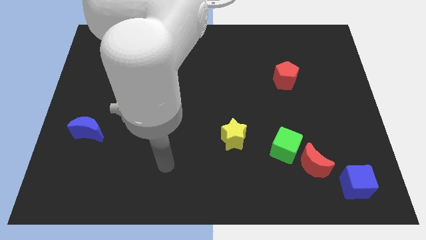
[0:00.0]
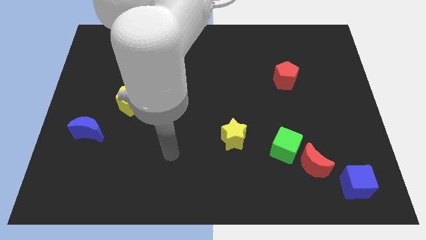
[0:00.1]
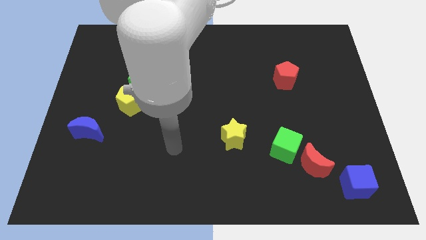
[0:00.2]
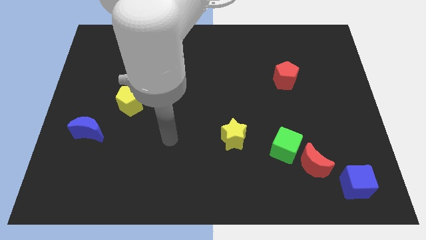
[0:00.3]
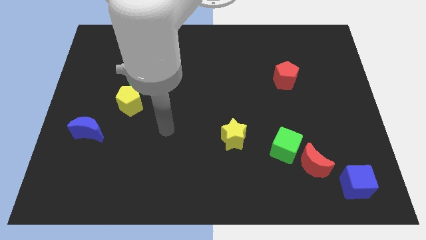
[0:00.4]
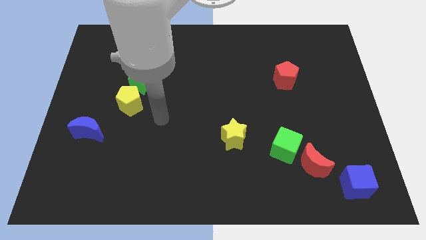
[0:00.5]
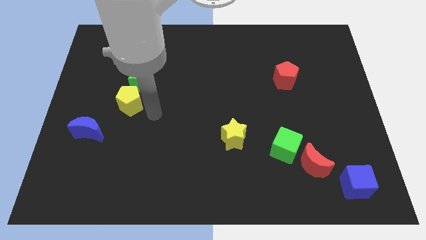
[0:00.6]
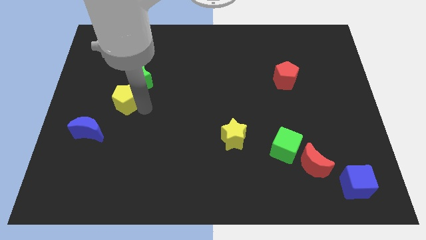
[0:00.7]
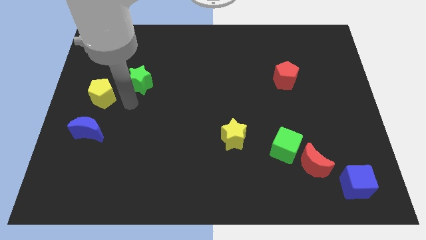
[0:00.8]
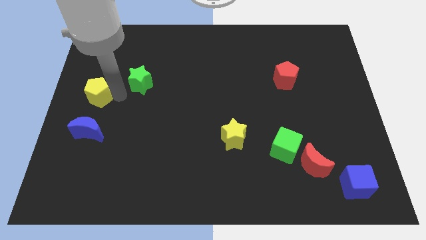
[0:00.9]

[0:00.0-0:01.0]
move the green star away from the yellow pentagon

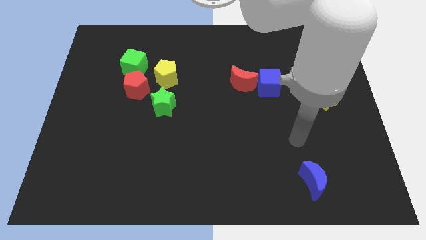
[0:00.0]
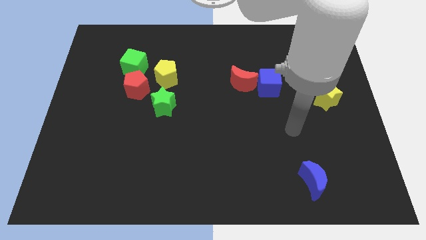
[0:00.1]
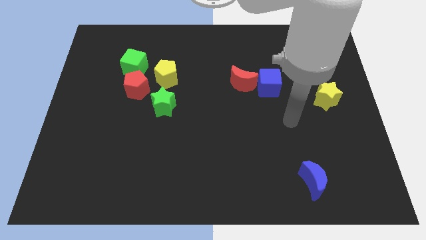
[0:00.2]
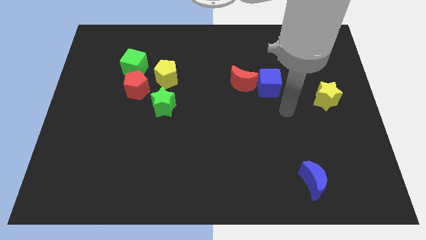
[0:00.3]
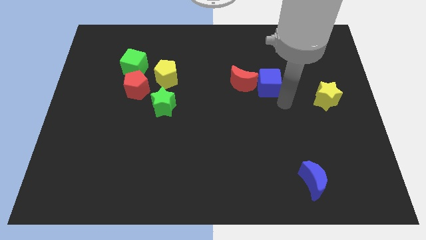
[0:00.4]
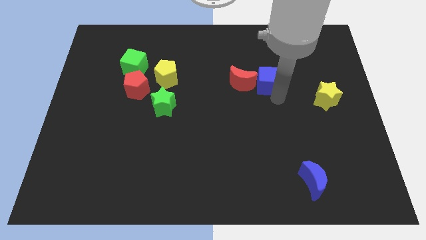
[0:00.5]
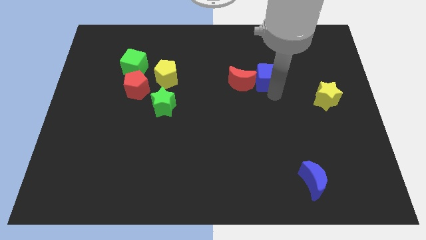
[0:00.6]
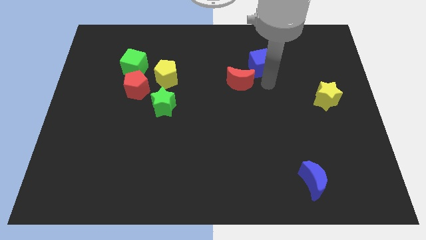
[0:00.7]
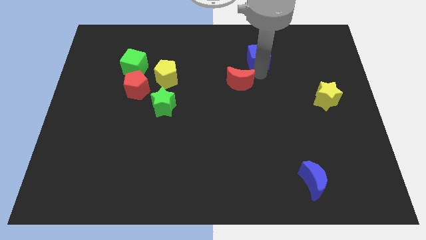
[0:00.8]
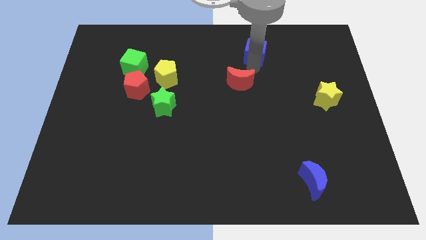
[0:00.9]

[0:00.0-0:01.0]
separate the red moon from the blue cube

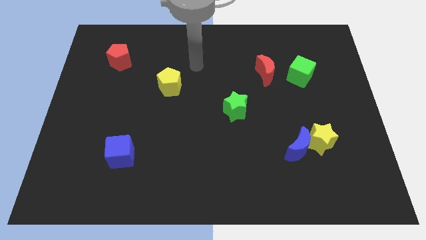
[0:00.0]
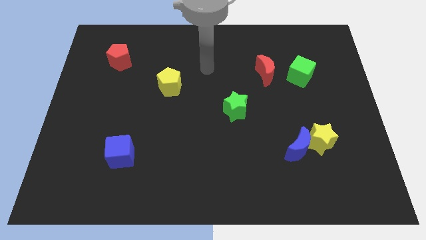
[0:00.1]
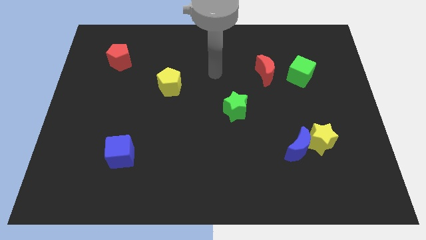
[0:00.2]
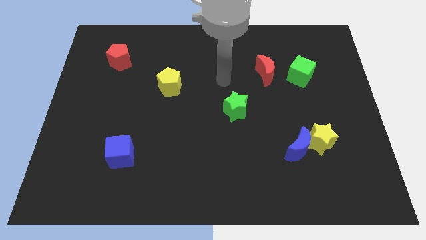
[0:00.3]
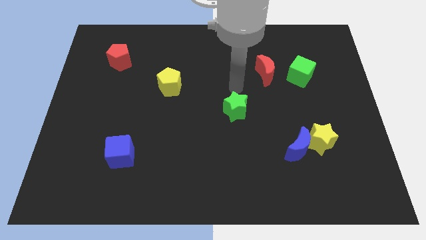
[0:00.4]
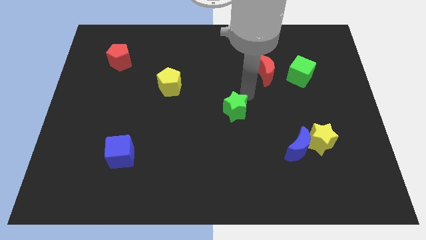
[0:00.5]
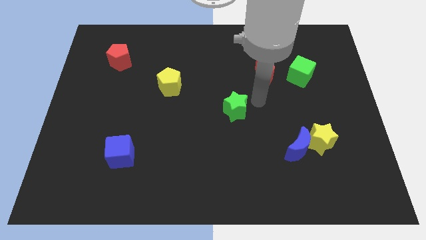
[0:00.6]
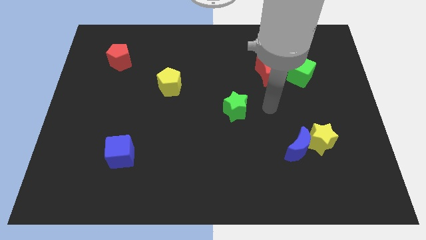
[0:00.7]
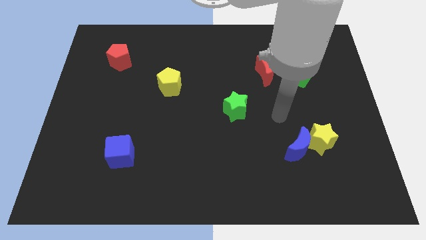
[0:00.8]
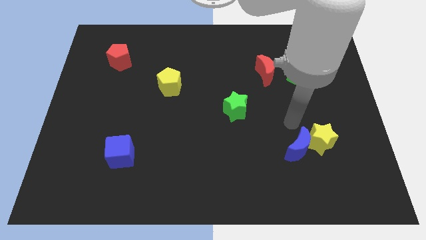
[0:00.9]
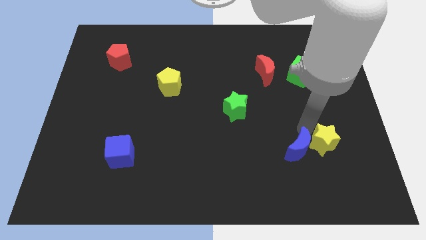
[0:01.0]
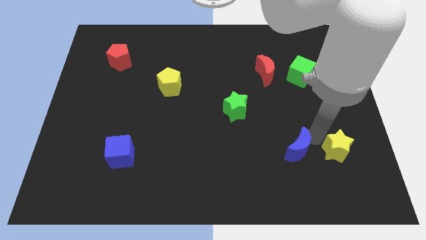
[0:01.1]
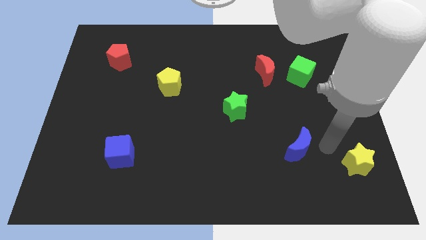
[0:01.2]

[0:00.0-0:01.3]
move the blue moon away from the yellow star

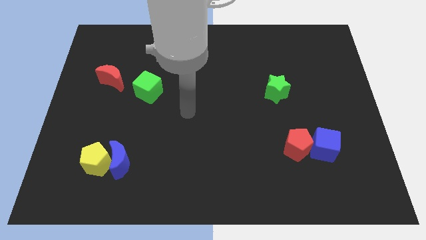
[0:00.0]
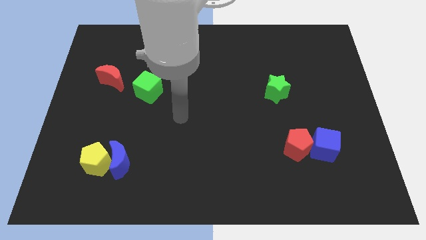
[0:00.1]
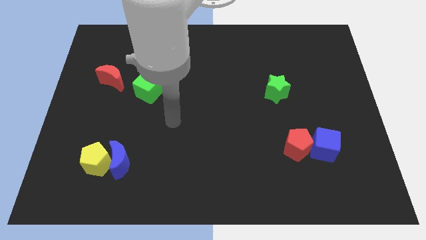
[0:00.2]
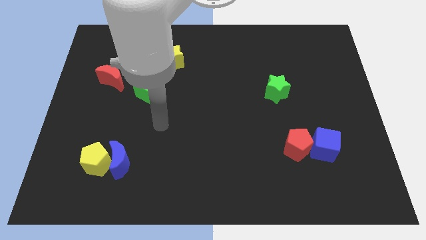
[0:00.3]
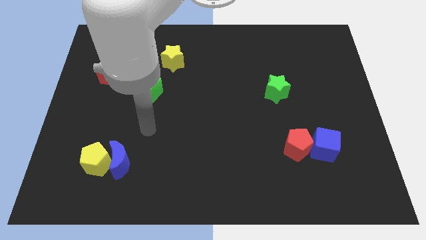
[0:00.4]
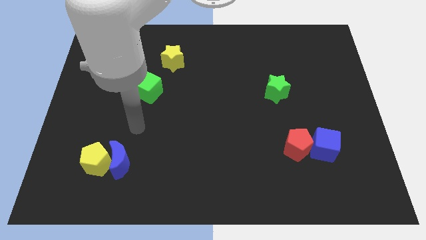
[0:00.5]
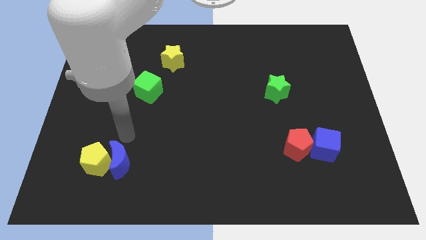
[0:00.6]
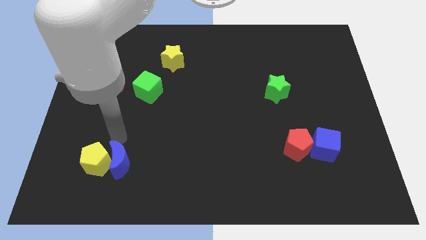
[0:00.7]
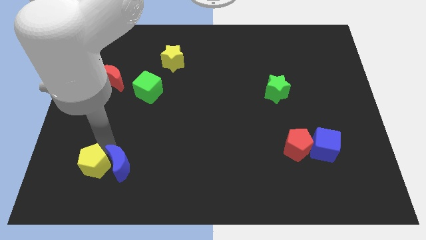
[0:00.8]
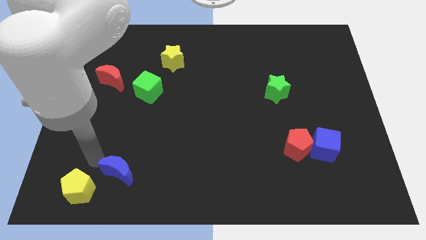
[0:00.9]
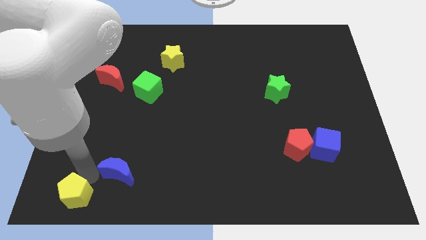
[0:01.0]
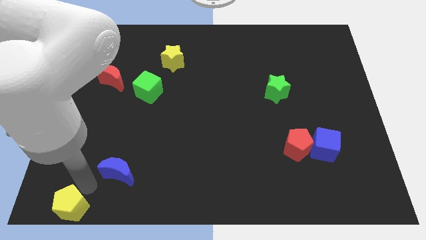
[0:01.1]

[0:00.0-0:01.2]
pull the blue moon apart from the yellow pentagon

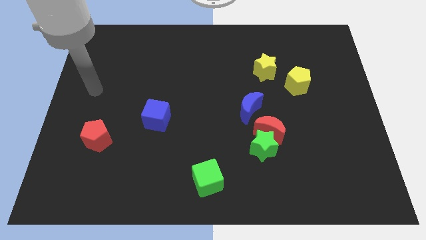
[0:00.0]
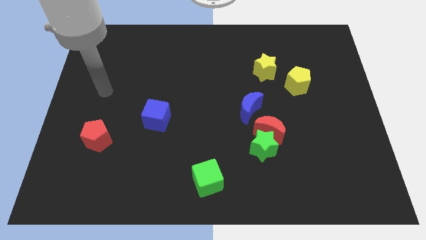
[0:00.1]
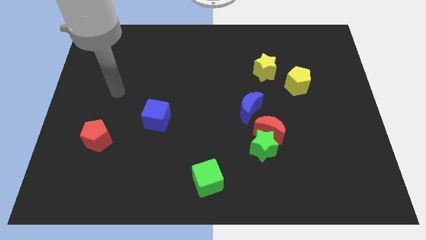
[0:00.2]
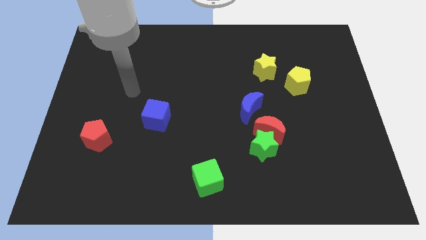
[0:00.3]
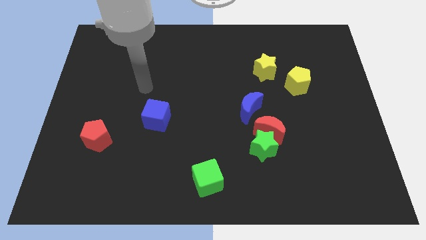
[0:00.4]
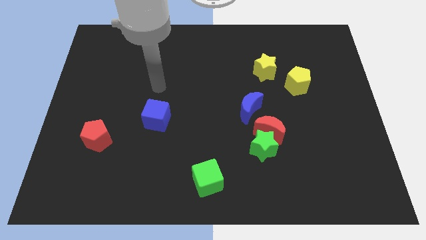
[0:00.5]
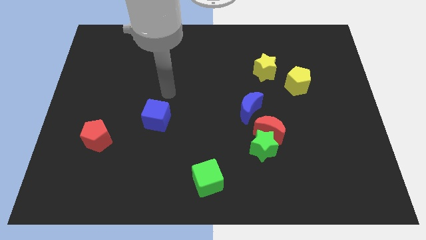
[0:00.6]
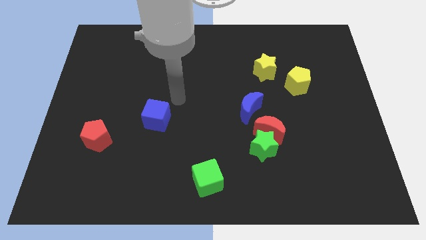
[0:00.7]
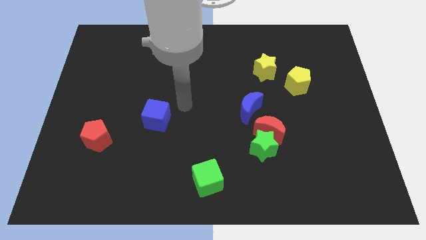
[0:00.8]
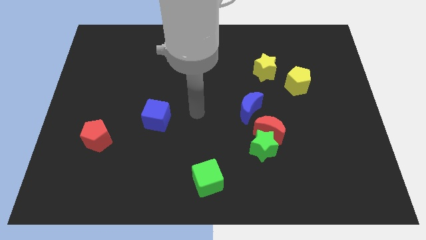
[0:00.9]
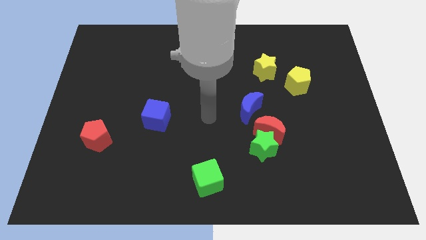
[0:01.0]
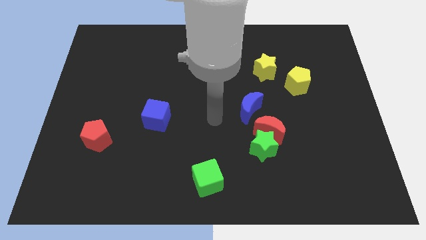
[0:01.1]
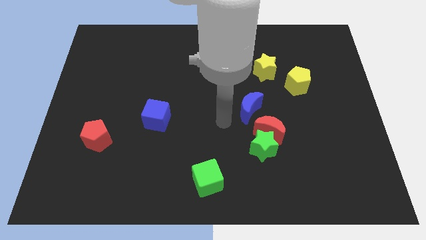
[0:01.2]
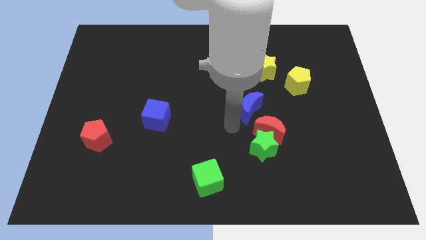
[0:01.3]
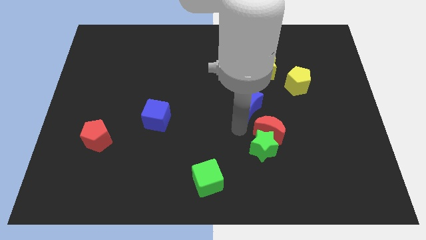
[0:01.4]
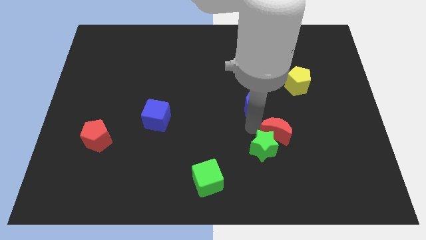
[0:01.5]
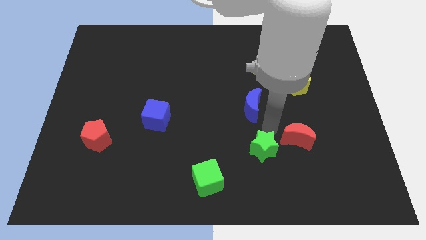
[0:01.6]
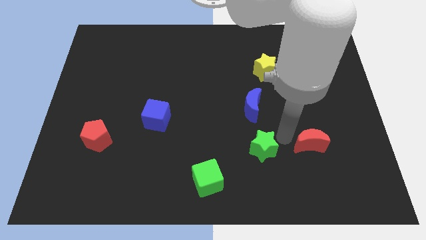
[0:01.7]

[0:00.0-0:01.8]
pull the green star apart from the red moon

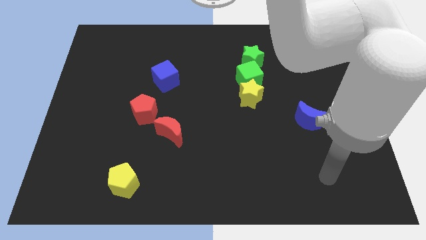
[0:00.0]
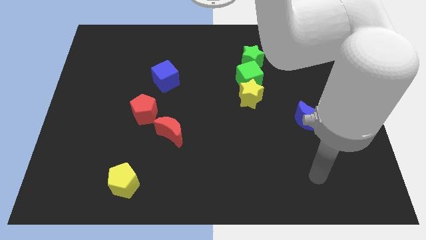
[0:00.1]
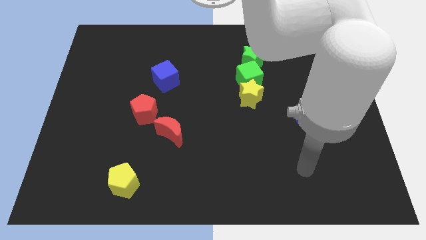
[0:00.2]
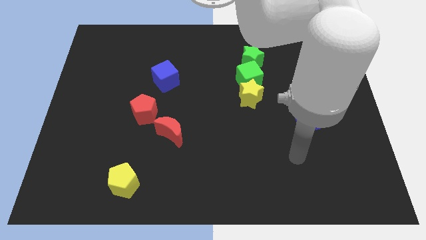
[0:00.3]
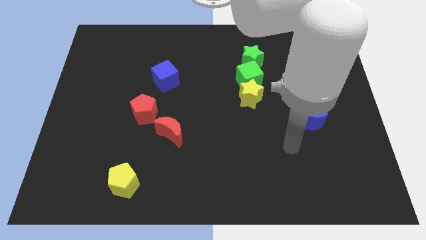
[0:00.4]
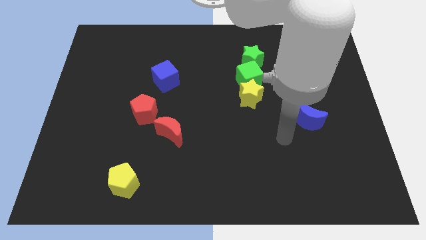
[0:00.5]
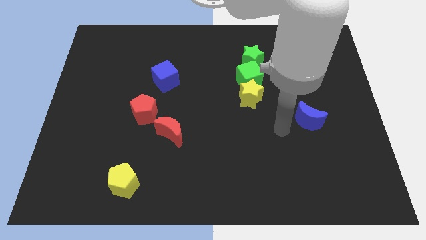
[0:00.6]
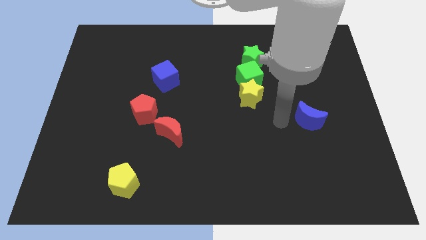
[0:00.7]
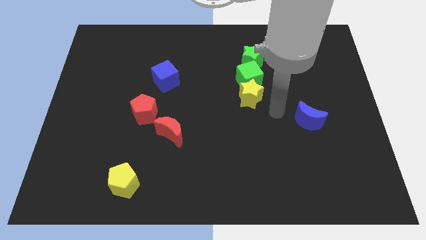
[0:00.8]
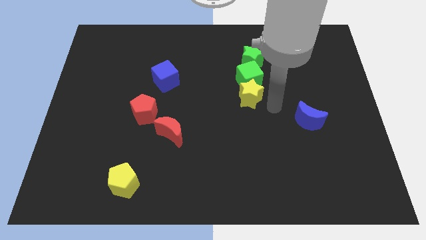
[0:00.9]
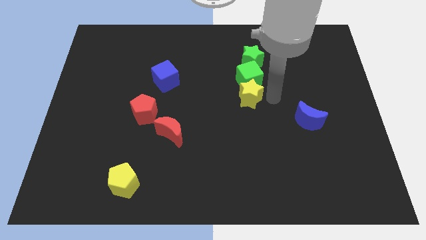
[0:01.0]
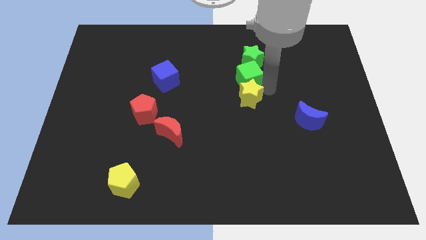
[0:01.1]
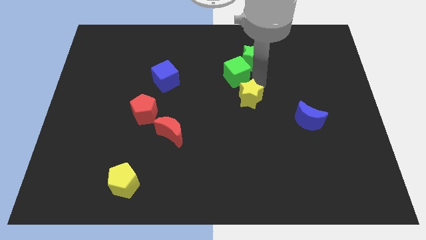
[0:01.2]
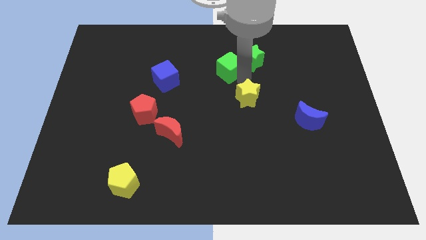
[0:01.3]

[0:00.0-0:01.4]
separate the yellow star from the green cube

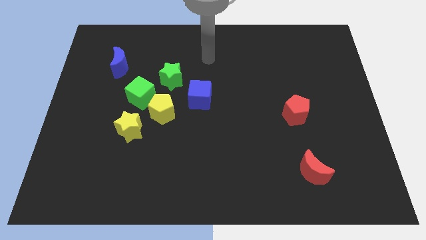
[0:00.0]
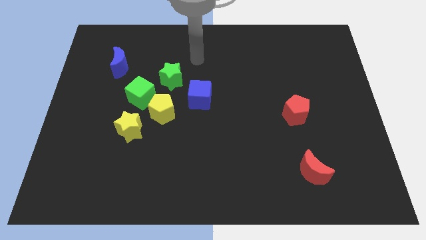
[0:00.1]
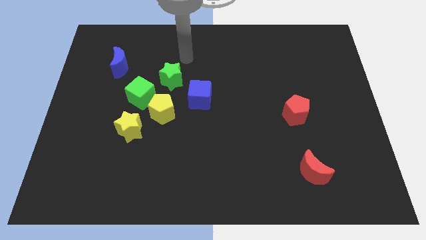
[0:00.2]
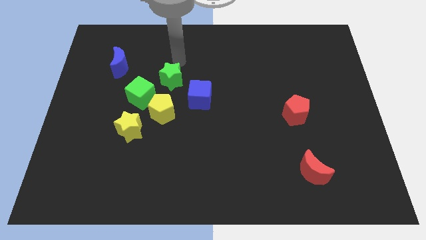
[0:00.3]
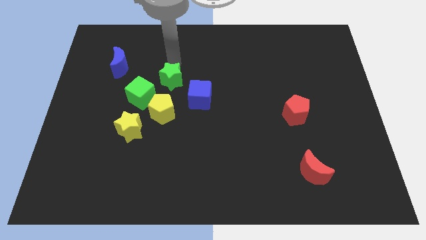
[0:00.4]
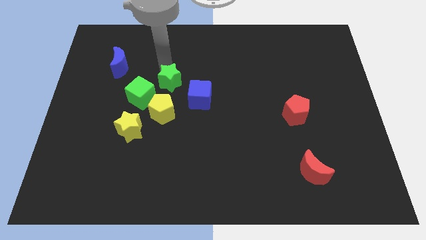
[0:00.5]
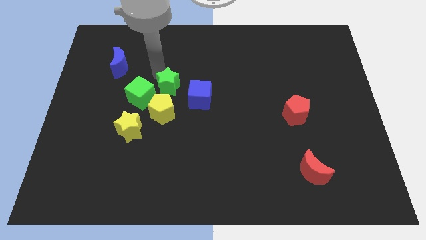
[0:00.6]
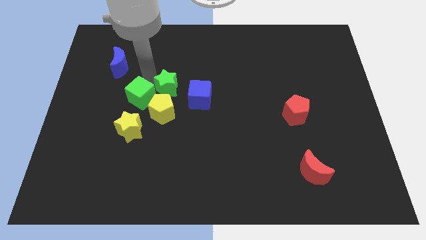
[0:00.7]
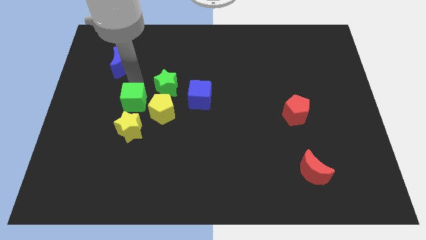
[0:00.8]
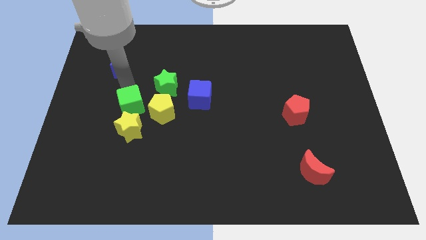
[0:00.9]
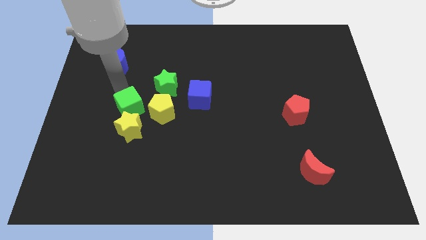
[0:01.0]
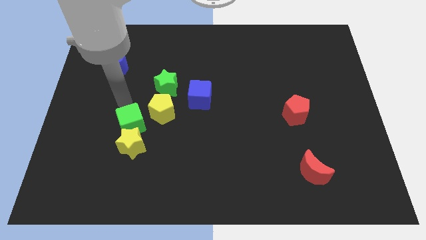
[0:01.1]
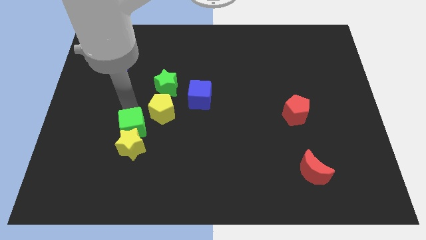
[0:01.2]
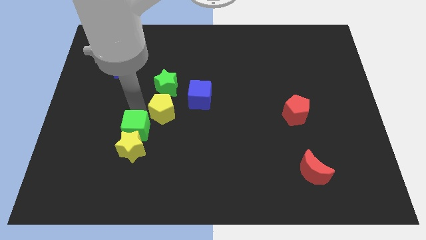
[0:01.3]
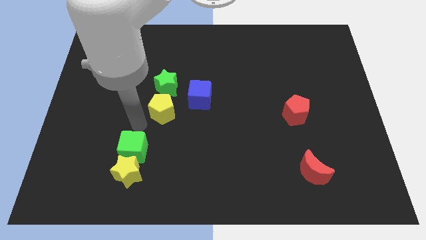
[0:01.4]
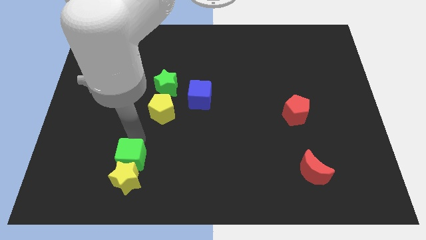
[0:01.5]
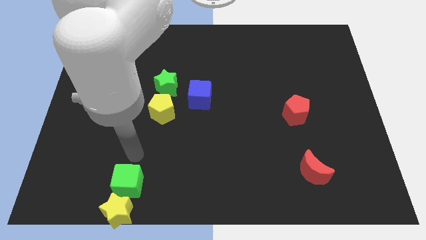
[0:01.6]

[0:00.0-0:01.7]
pull the green cube apart from the group
